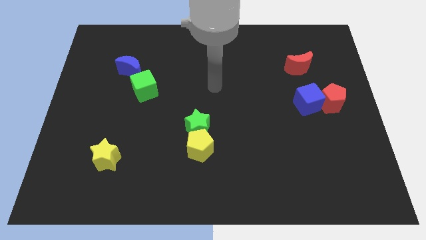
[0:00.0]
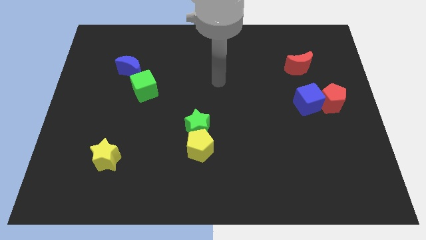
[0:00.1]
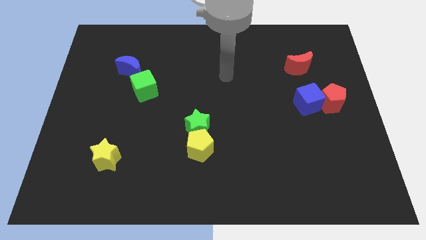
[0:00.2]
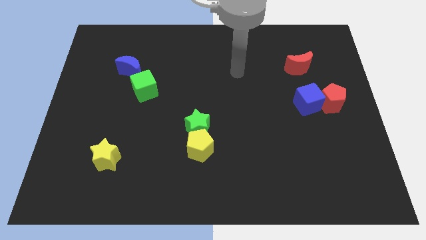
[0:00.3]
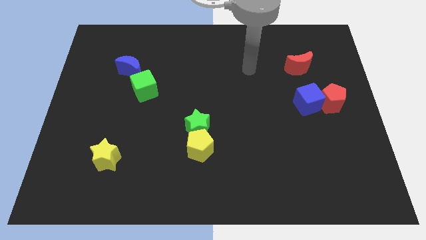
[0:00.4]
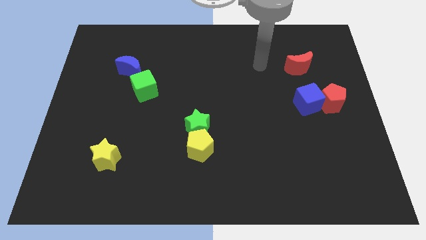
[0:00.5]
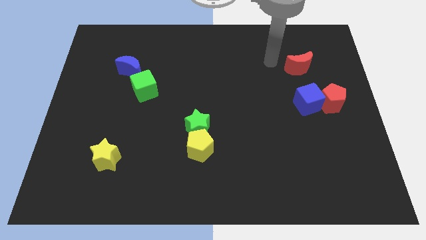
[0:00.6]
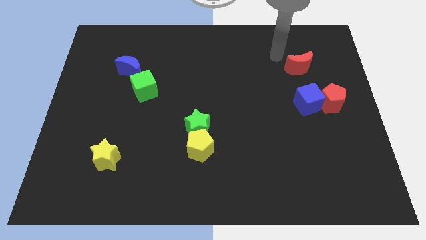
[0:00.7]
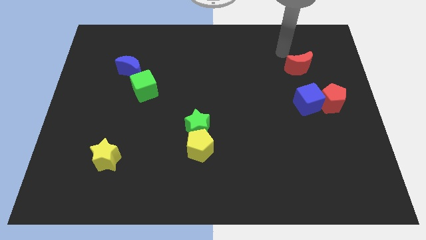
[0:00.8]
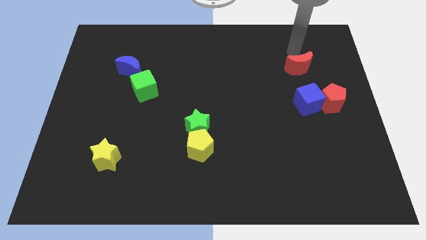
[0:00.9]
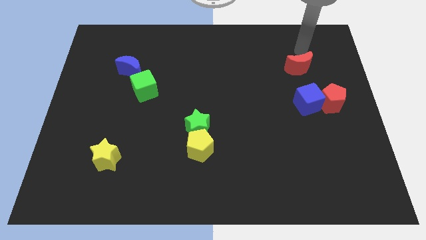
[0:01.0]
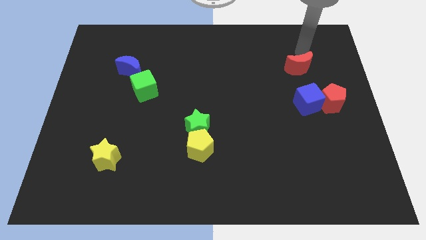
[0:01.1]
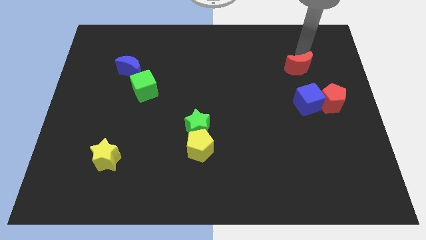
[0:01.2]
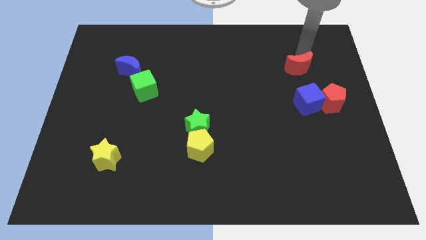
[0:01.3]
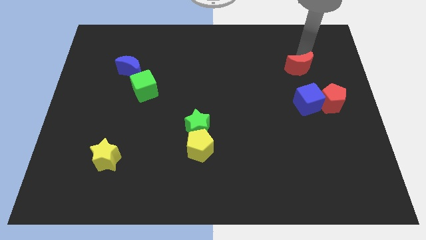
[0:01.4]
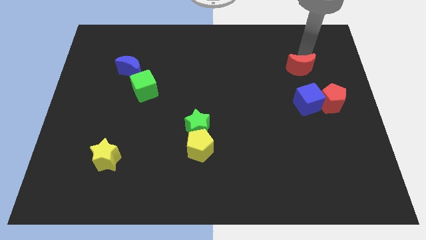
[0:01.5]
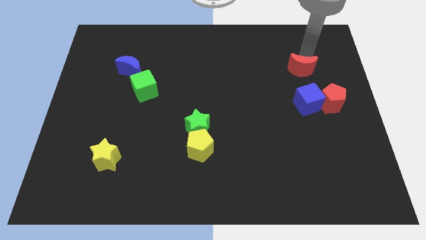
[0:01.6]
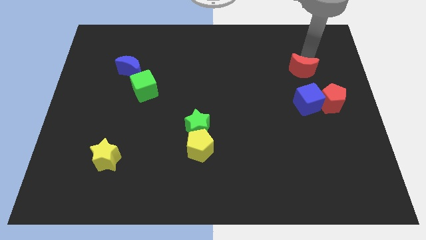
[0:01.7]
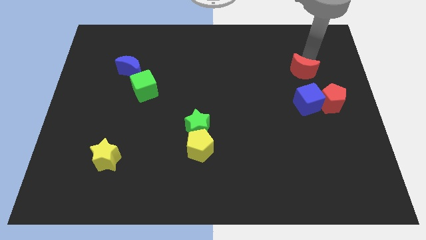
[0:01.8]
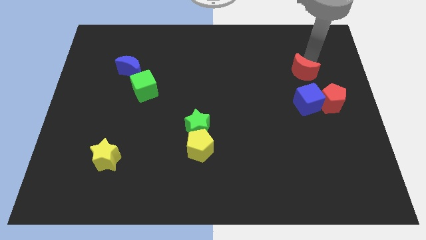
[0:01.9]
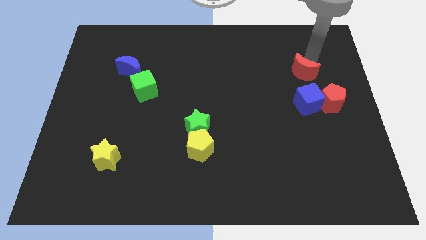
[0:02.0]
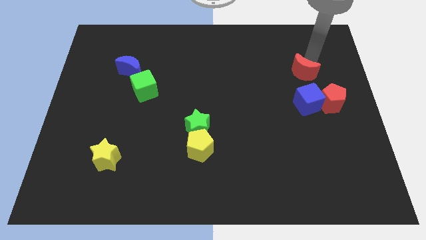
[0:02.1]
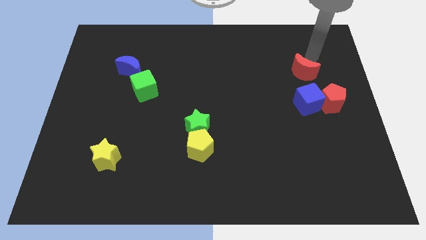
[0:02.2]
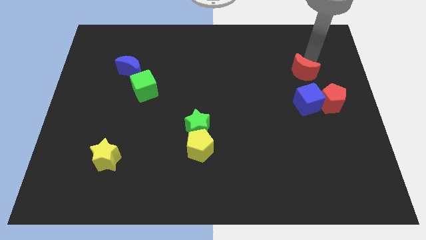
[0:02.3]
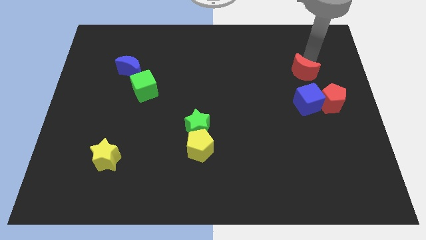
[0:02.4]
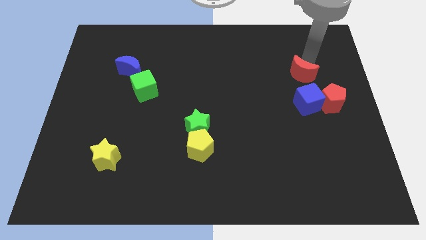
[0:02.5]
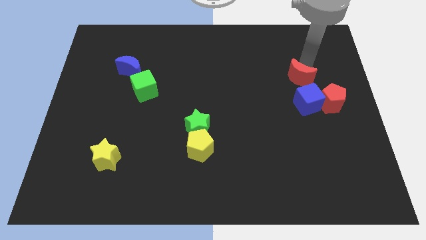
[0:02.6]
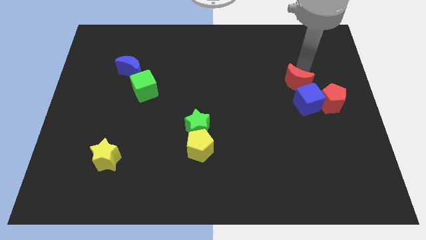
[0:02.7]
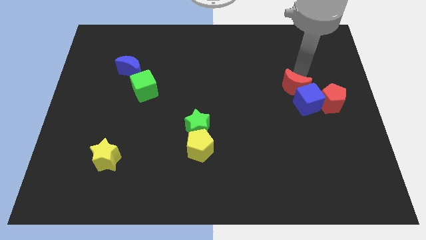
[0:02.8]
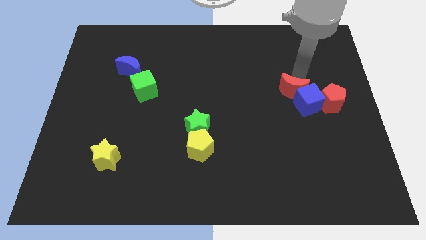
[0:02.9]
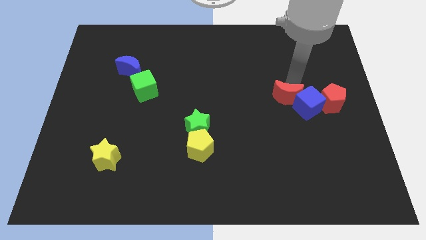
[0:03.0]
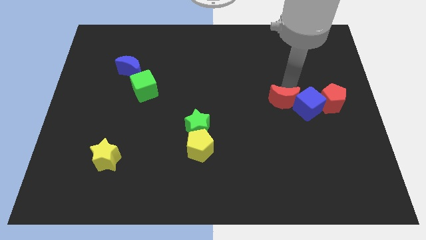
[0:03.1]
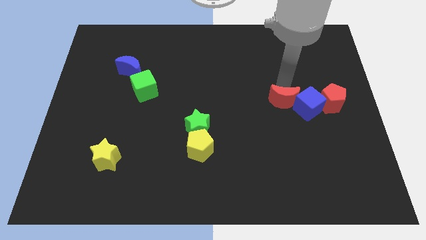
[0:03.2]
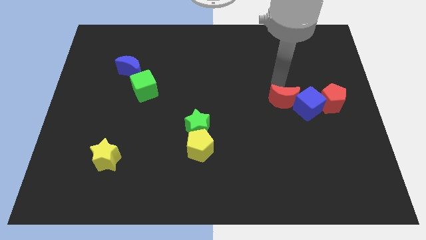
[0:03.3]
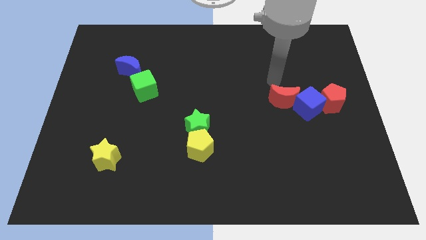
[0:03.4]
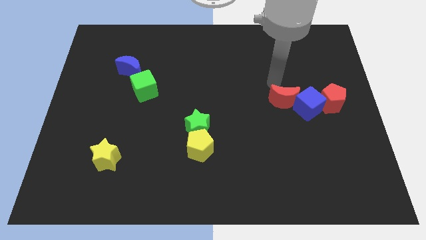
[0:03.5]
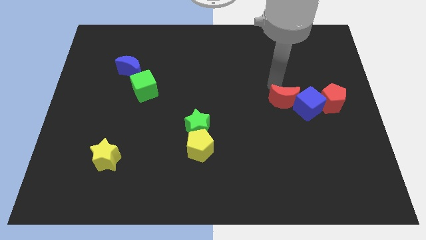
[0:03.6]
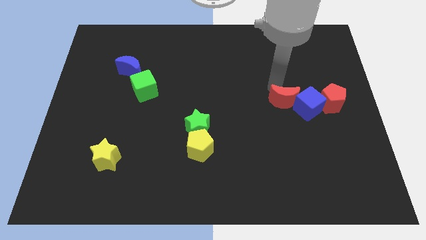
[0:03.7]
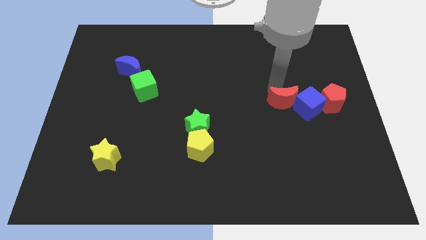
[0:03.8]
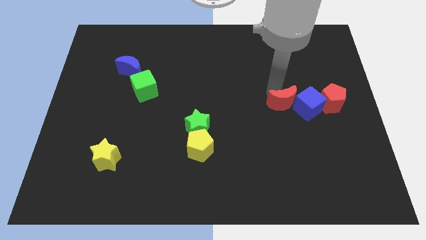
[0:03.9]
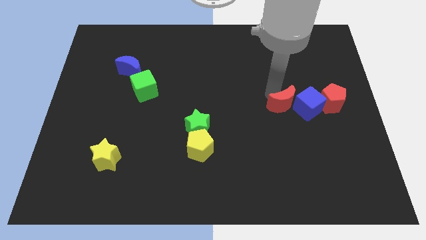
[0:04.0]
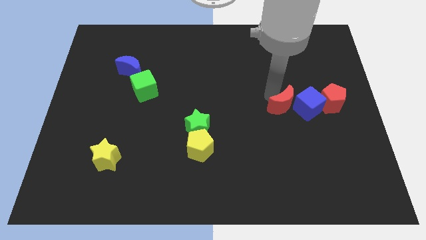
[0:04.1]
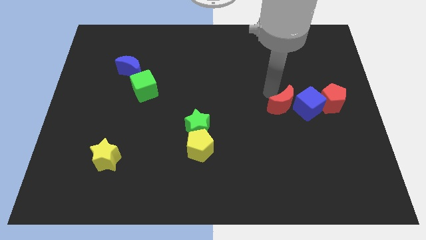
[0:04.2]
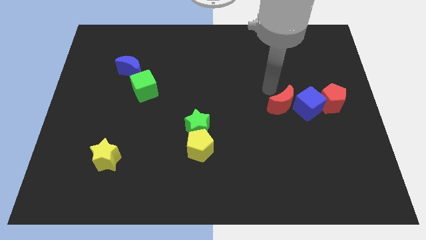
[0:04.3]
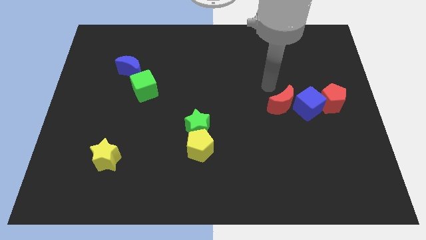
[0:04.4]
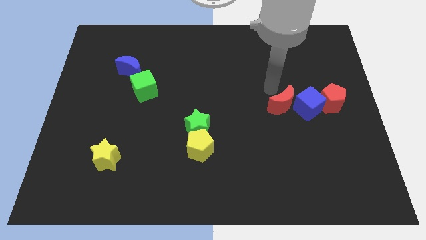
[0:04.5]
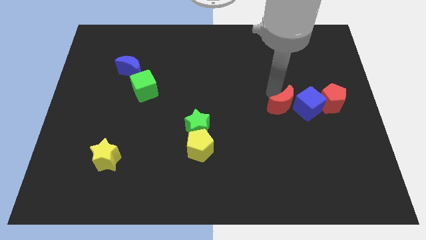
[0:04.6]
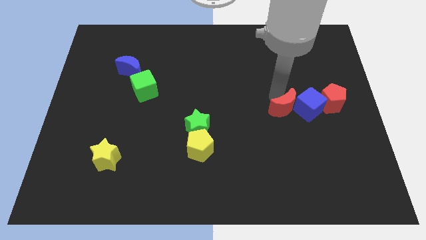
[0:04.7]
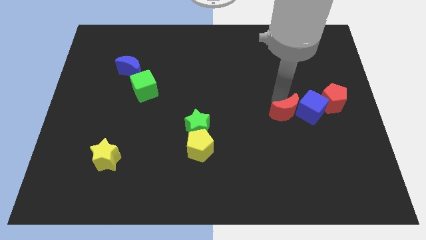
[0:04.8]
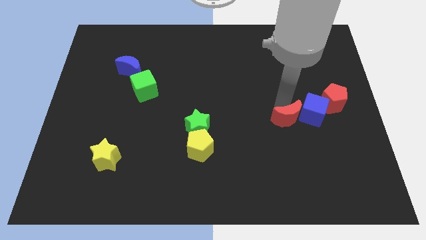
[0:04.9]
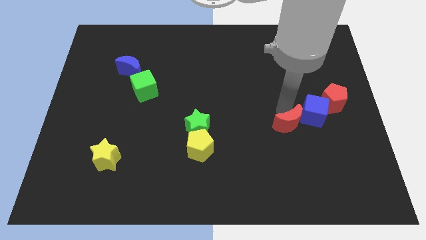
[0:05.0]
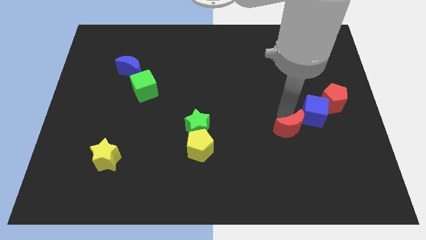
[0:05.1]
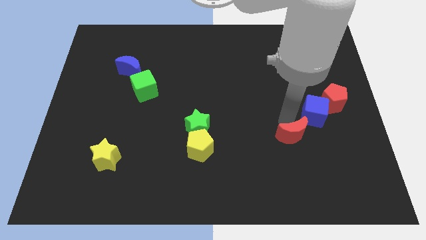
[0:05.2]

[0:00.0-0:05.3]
push the red moon downwards

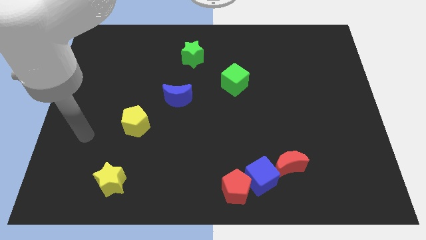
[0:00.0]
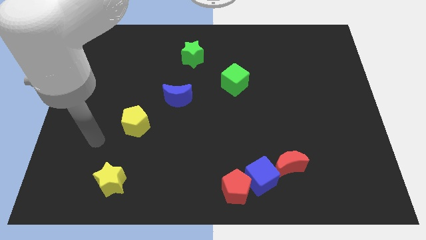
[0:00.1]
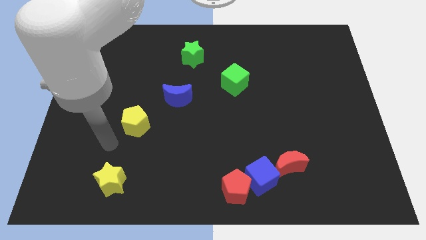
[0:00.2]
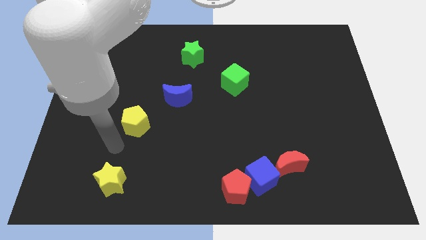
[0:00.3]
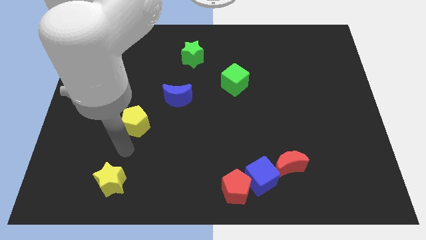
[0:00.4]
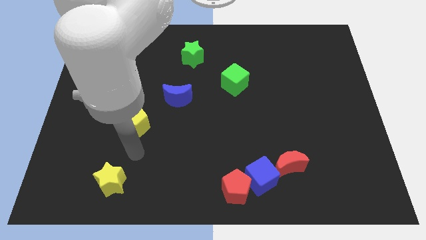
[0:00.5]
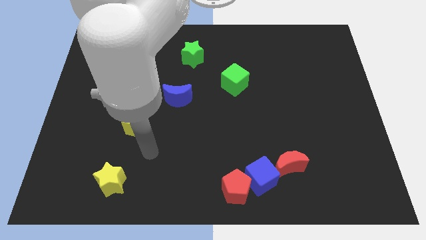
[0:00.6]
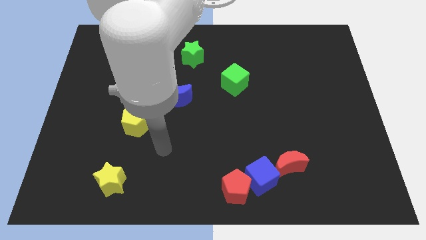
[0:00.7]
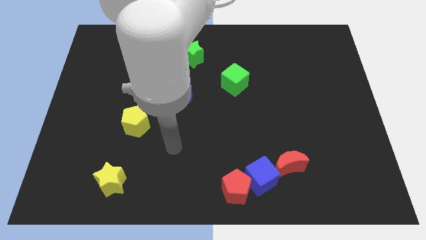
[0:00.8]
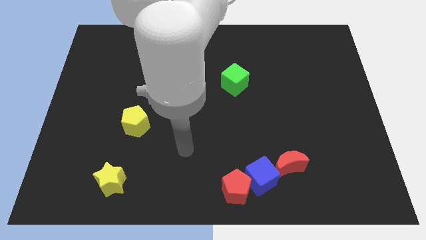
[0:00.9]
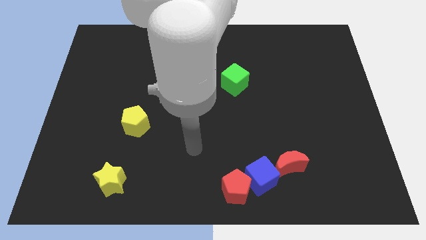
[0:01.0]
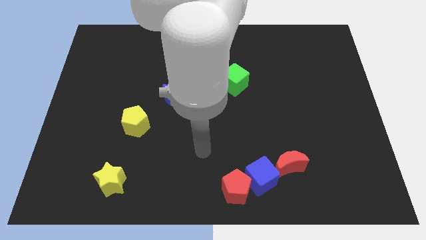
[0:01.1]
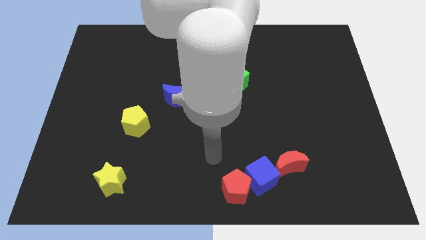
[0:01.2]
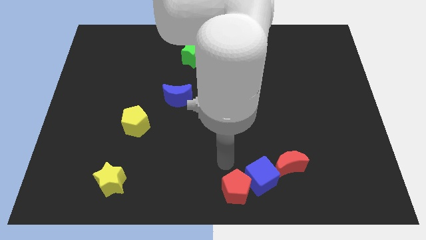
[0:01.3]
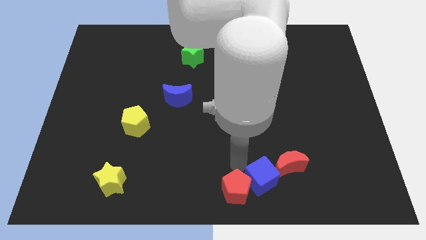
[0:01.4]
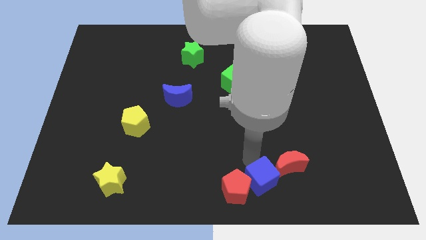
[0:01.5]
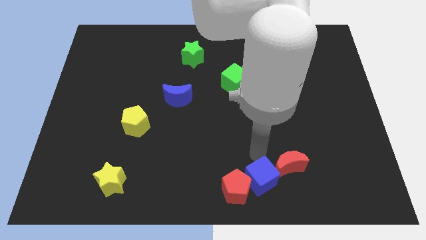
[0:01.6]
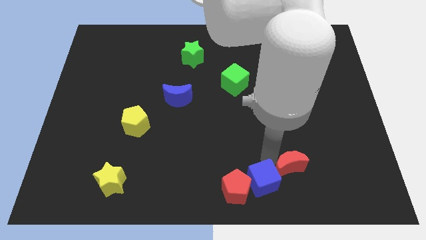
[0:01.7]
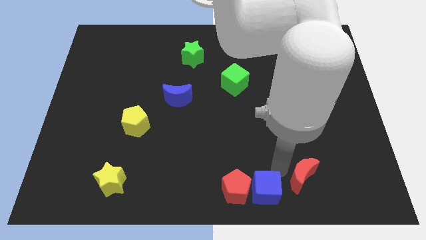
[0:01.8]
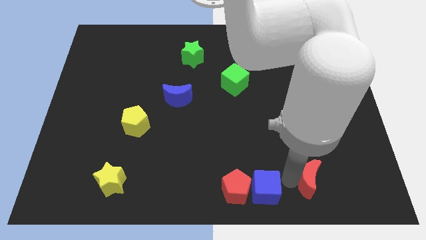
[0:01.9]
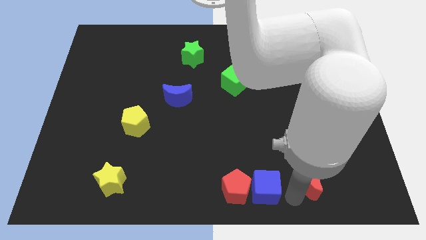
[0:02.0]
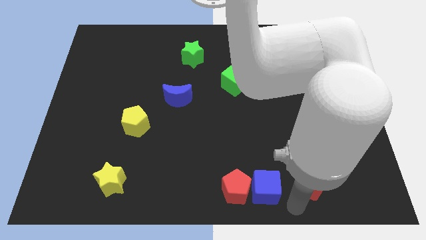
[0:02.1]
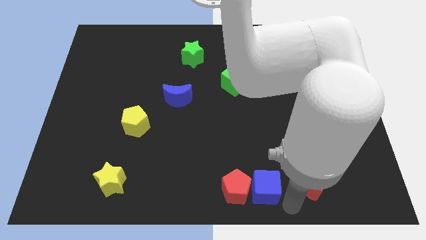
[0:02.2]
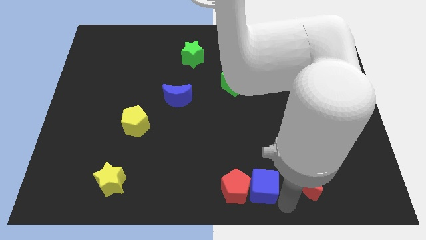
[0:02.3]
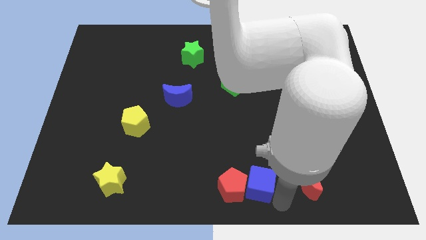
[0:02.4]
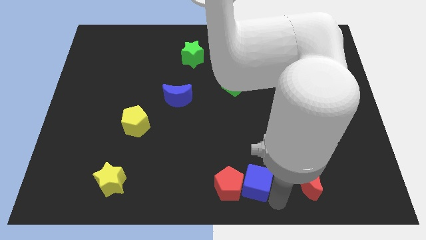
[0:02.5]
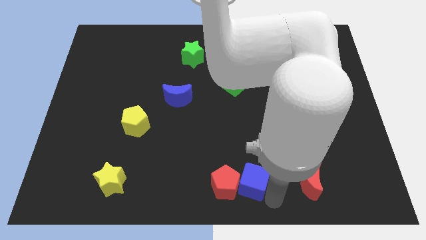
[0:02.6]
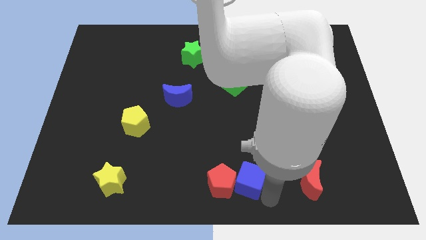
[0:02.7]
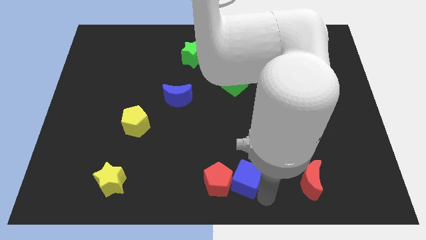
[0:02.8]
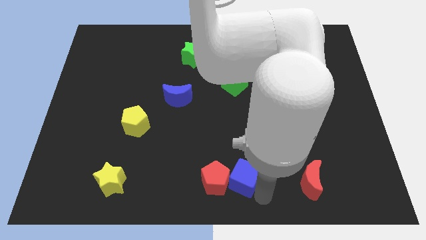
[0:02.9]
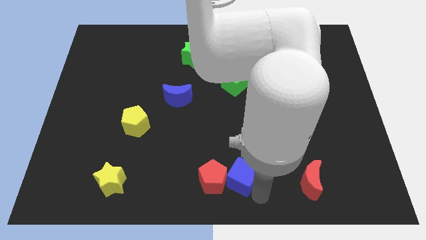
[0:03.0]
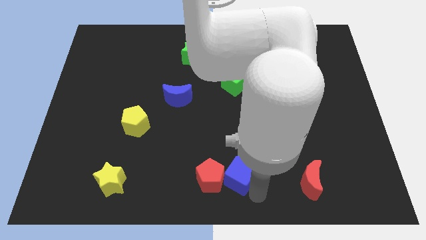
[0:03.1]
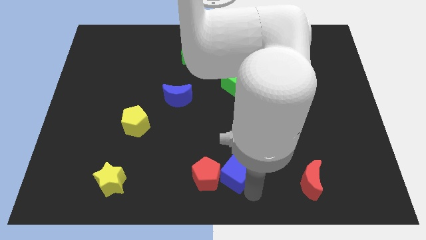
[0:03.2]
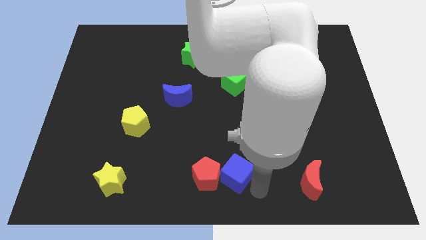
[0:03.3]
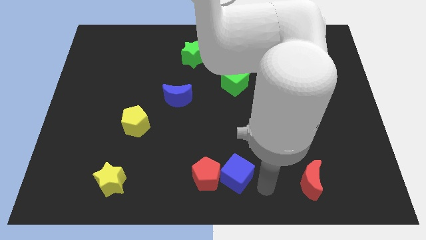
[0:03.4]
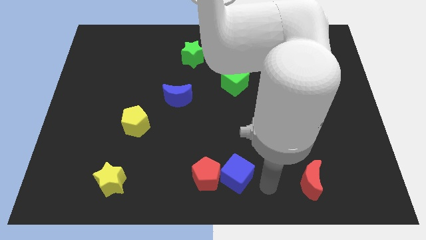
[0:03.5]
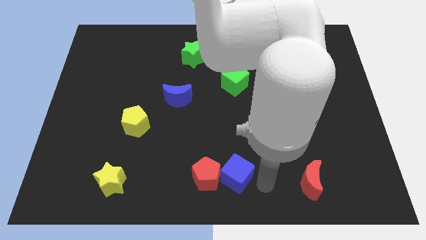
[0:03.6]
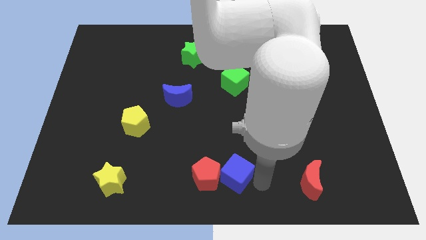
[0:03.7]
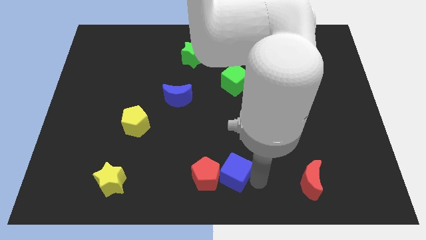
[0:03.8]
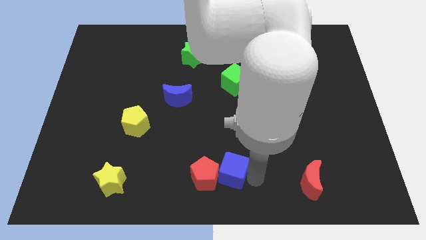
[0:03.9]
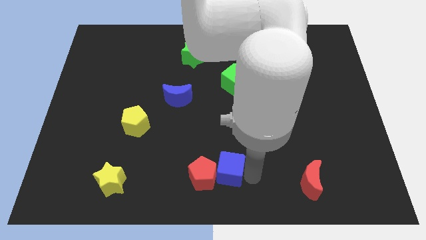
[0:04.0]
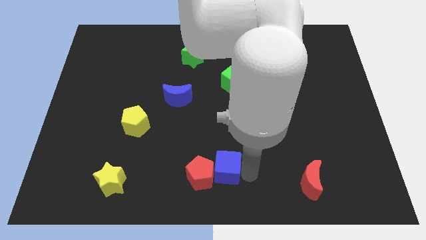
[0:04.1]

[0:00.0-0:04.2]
push the blue cube to the left a little bit
